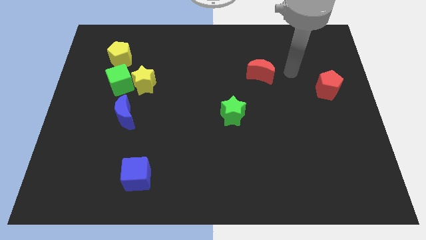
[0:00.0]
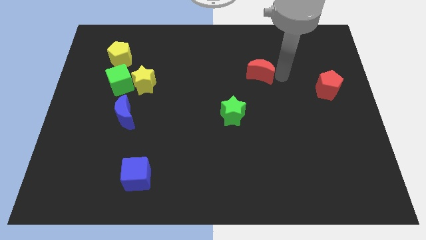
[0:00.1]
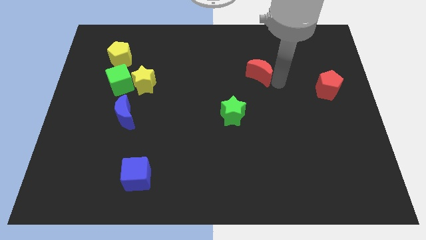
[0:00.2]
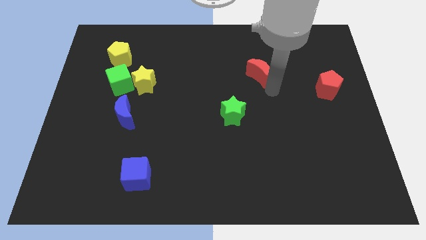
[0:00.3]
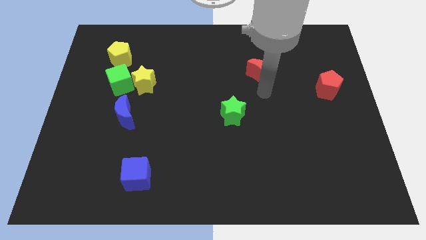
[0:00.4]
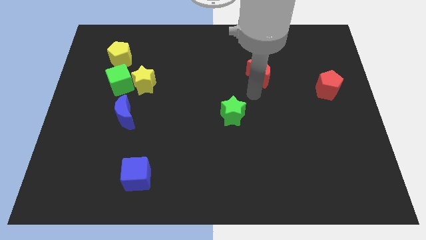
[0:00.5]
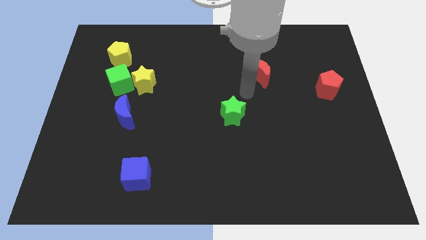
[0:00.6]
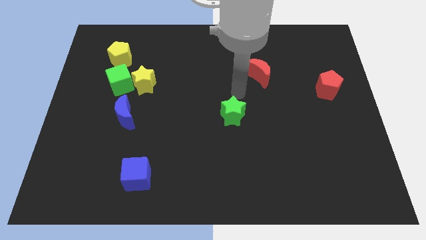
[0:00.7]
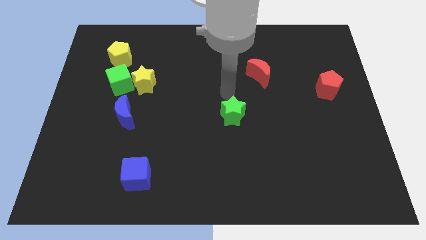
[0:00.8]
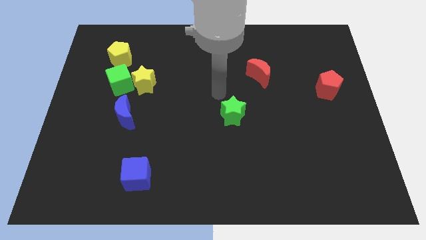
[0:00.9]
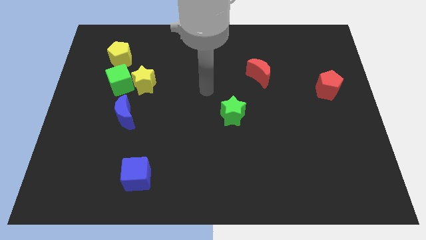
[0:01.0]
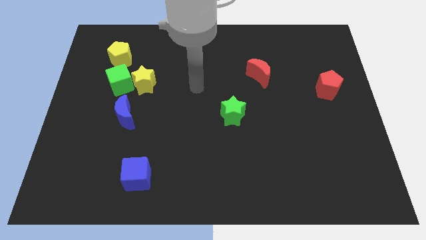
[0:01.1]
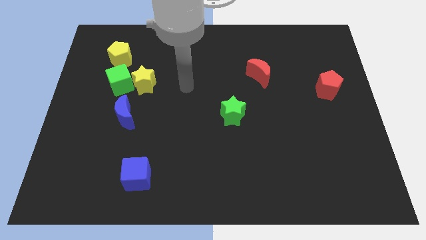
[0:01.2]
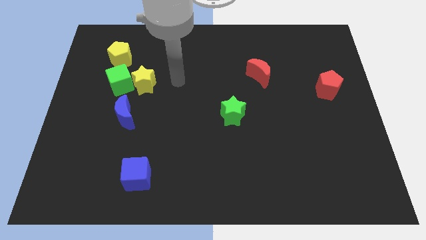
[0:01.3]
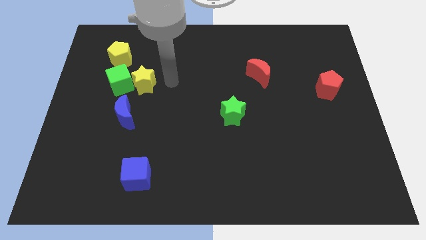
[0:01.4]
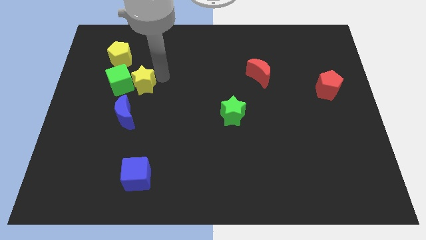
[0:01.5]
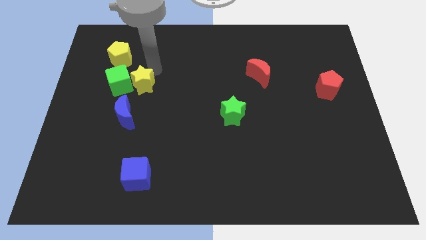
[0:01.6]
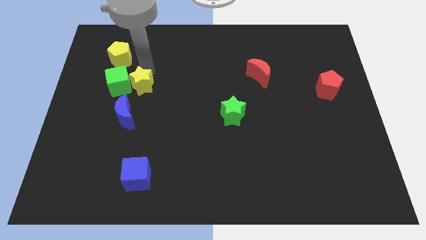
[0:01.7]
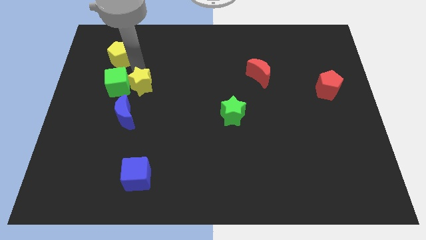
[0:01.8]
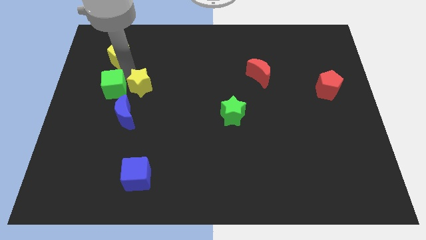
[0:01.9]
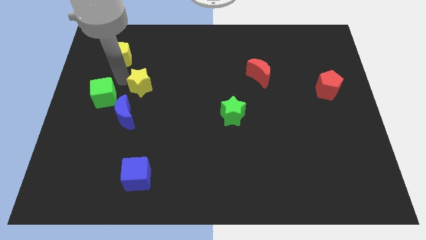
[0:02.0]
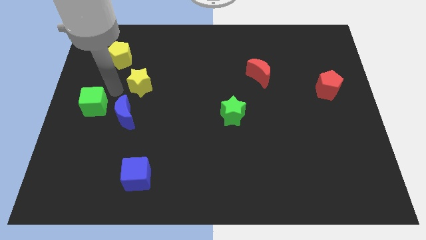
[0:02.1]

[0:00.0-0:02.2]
pull the yellow star apart from the green cube

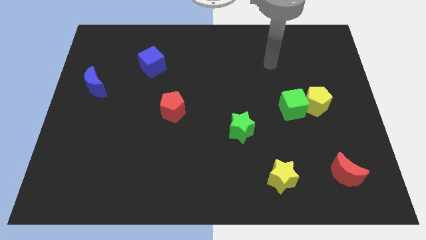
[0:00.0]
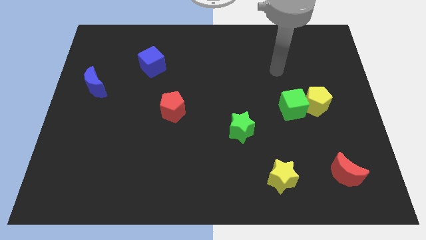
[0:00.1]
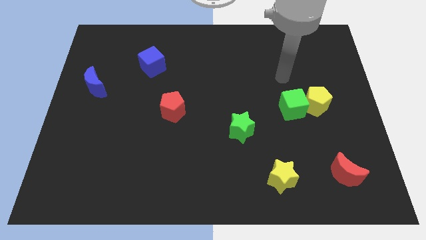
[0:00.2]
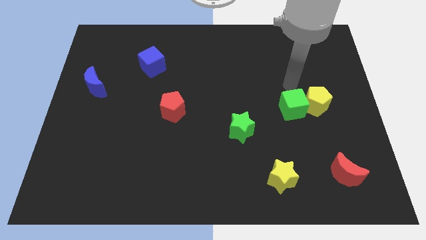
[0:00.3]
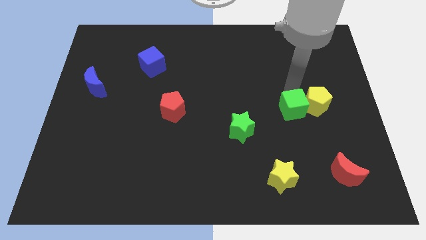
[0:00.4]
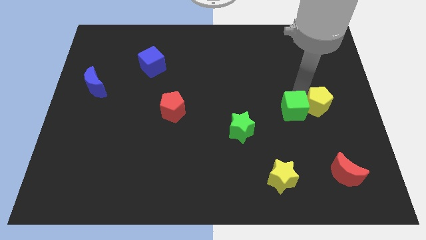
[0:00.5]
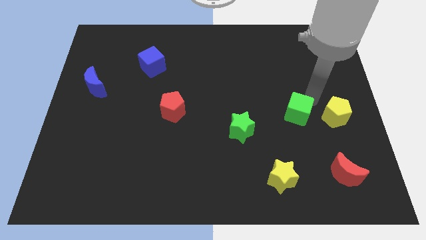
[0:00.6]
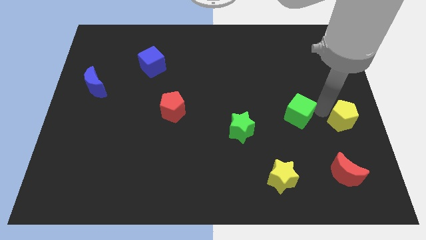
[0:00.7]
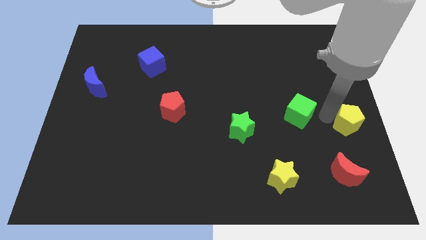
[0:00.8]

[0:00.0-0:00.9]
pull the green cube apart from the yellow pentagon

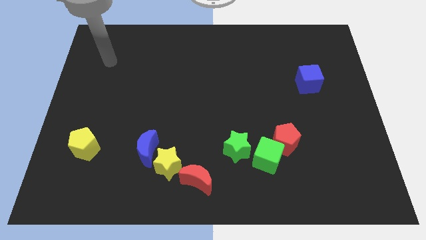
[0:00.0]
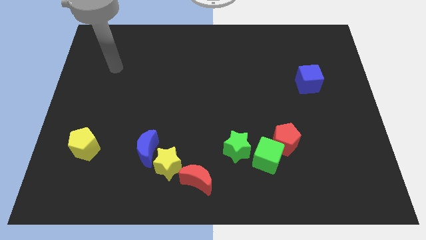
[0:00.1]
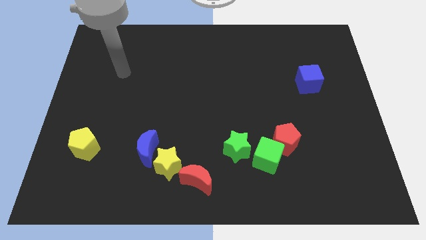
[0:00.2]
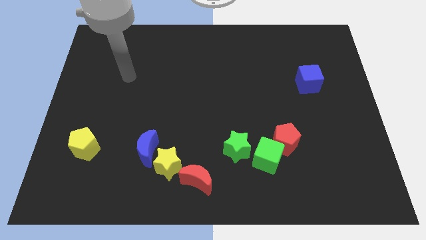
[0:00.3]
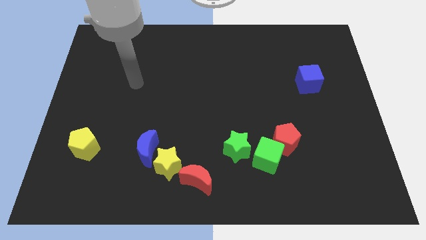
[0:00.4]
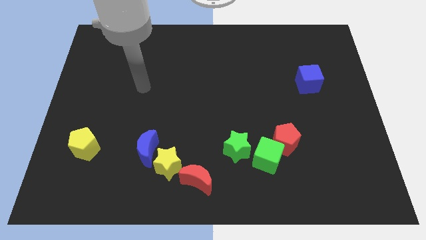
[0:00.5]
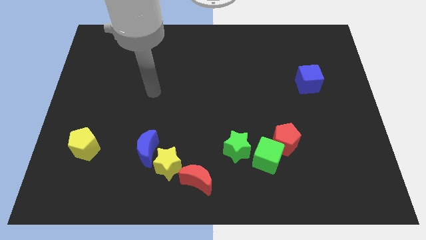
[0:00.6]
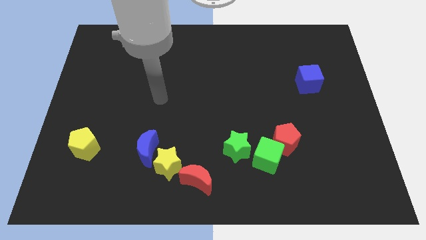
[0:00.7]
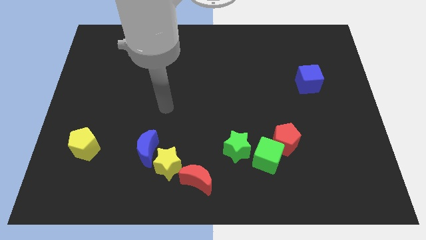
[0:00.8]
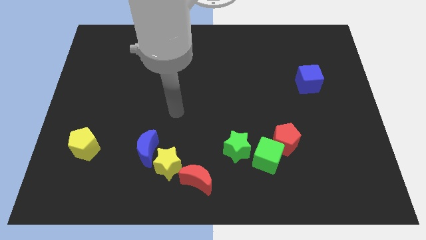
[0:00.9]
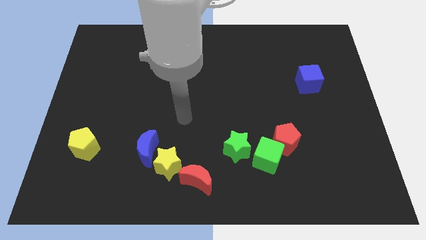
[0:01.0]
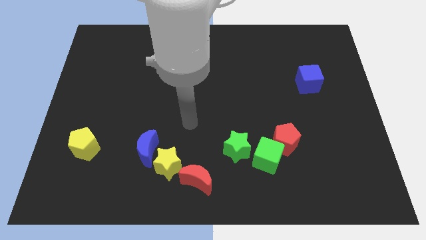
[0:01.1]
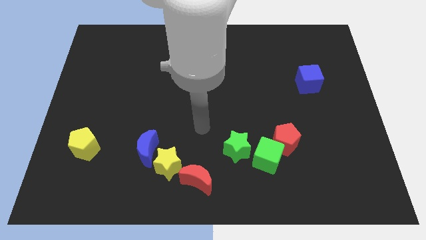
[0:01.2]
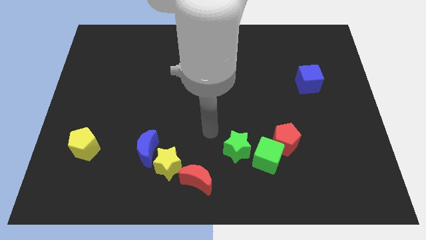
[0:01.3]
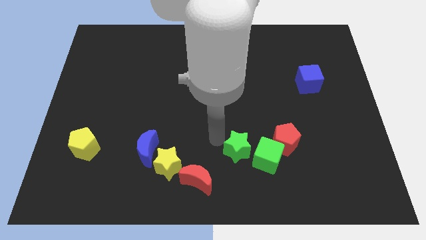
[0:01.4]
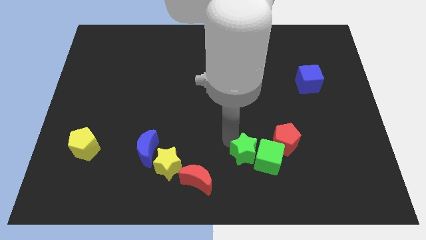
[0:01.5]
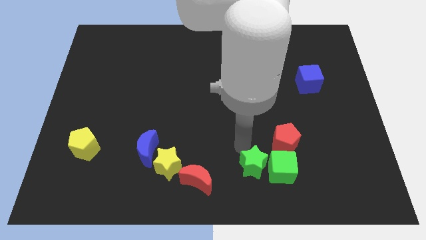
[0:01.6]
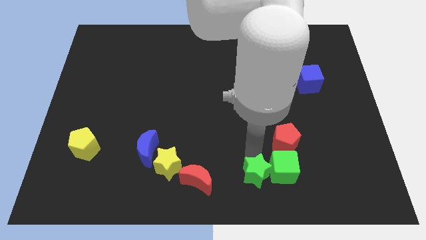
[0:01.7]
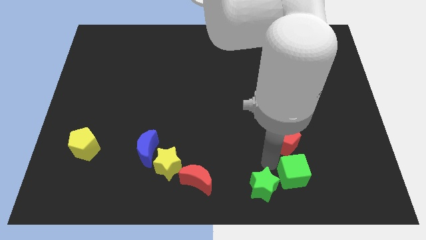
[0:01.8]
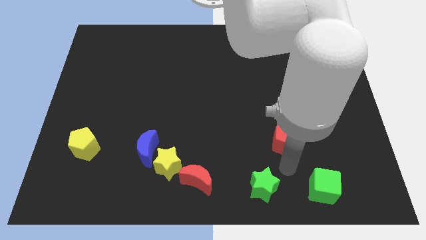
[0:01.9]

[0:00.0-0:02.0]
move the red pentagon away from the green cube

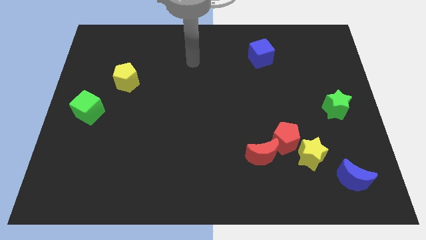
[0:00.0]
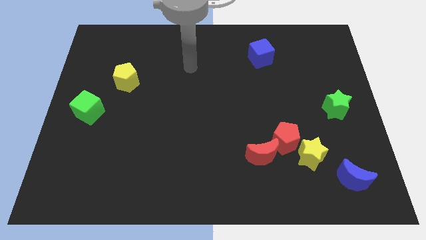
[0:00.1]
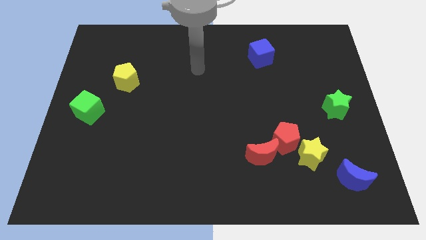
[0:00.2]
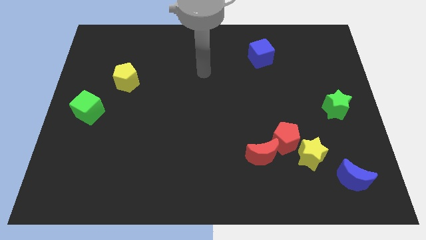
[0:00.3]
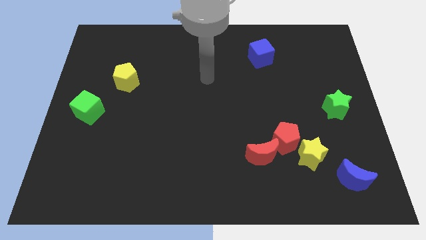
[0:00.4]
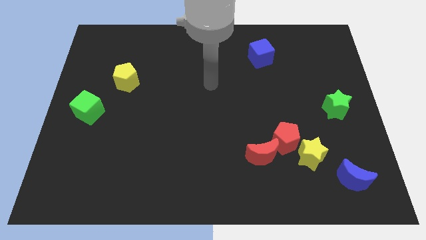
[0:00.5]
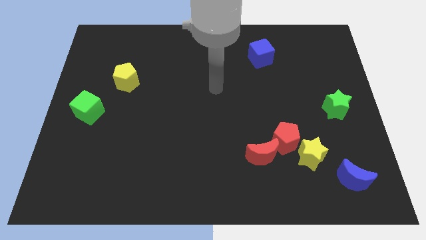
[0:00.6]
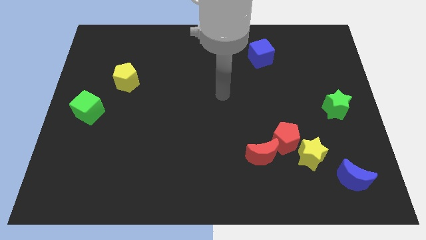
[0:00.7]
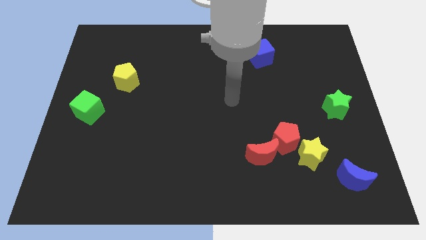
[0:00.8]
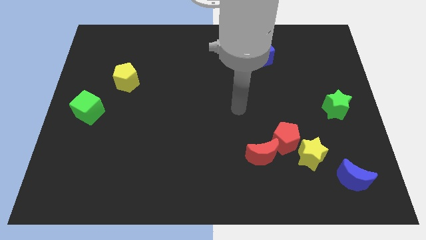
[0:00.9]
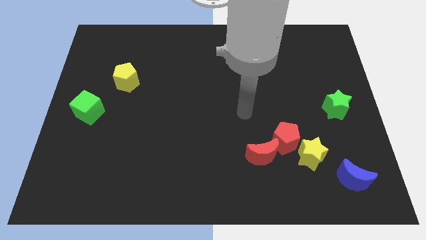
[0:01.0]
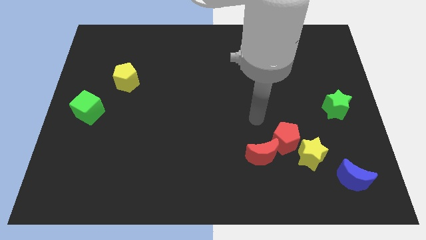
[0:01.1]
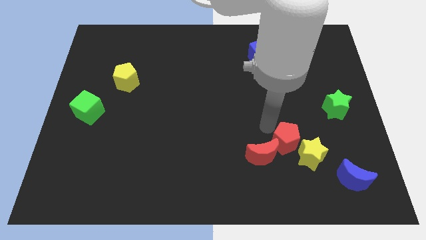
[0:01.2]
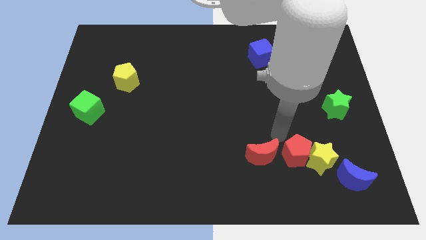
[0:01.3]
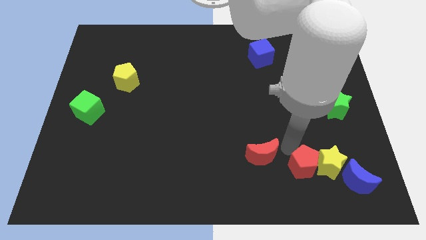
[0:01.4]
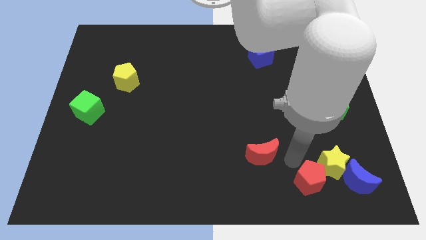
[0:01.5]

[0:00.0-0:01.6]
pull the red moon apart from the red pentagon

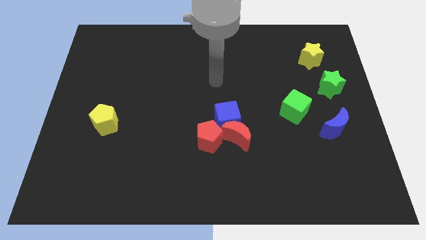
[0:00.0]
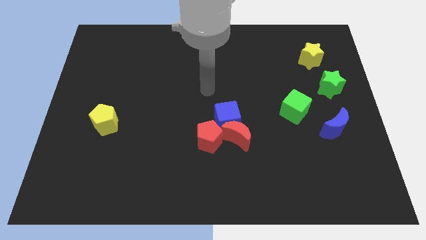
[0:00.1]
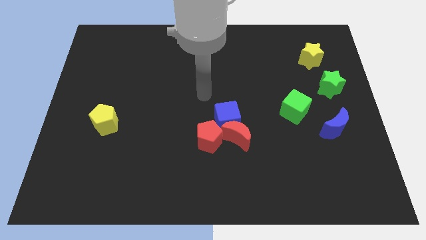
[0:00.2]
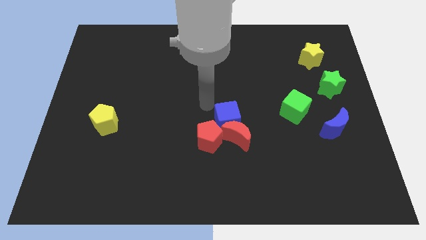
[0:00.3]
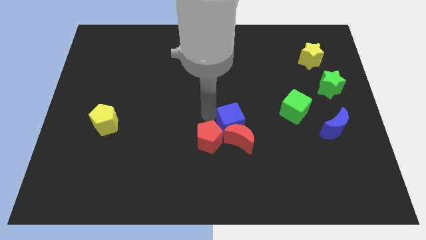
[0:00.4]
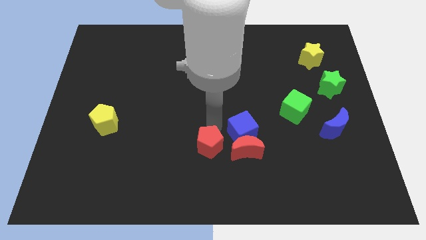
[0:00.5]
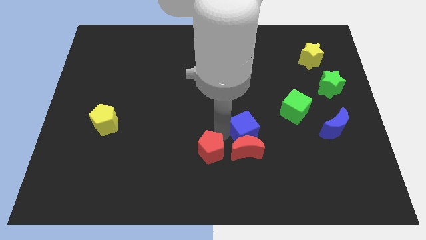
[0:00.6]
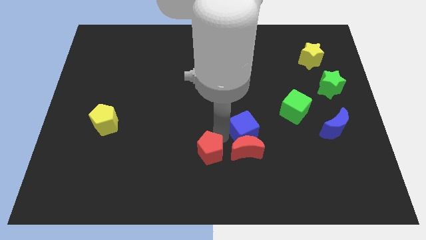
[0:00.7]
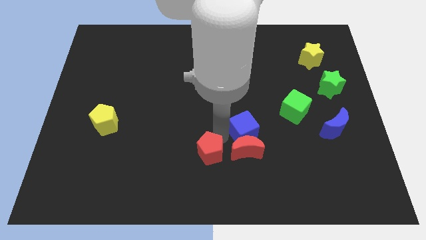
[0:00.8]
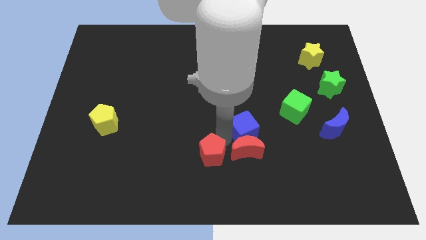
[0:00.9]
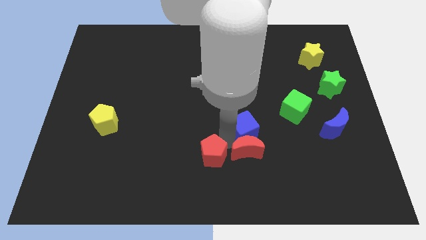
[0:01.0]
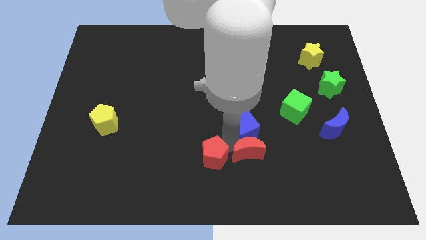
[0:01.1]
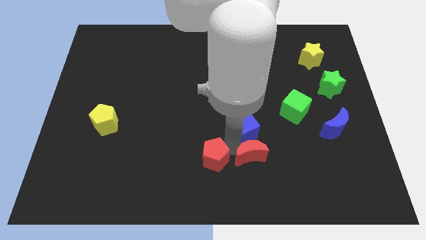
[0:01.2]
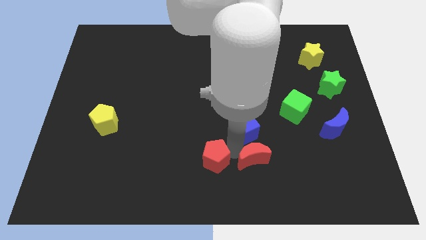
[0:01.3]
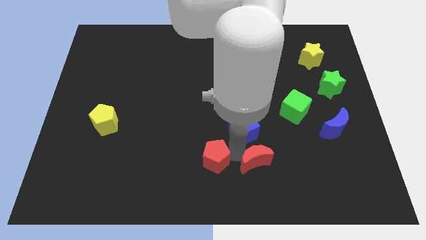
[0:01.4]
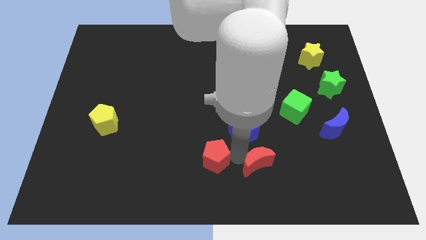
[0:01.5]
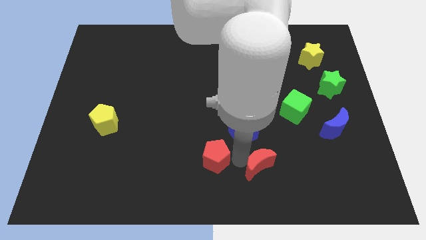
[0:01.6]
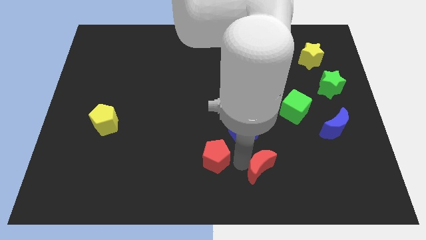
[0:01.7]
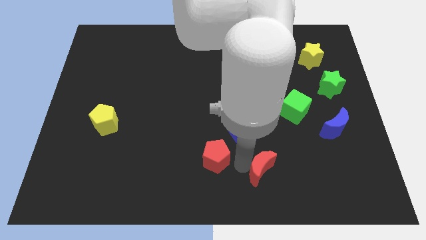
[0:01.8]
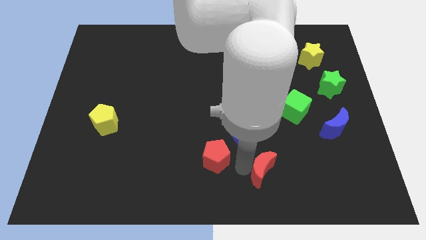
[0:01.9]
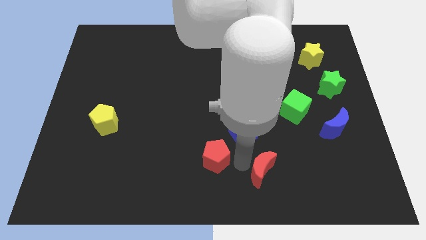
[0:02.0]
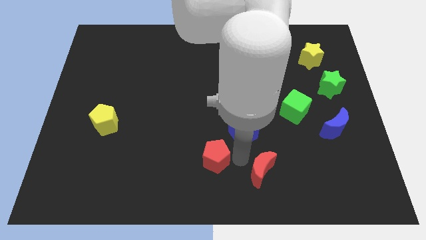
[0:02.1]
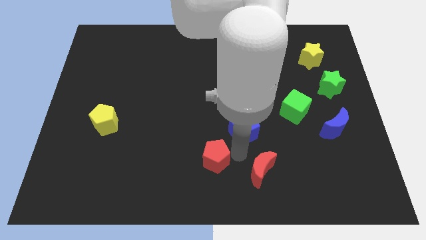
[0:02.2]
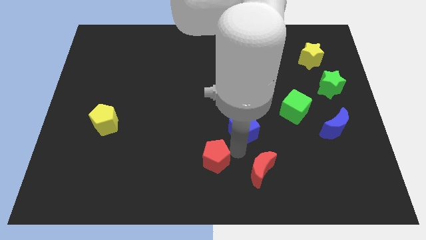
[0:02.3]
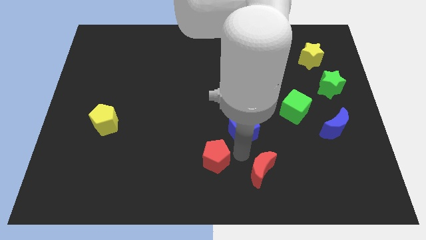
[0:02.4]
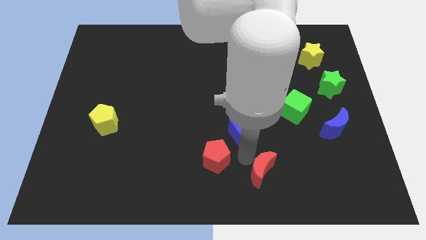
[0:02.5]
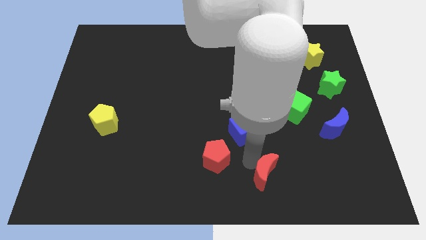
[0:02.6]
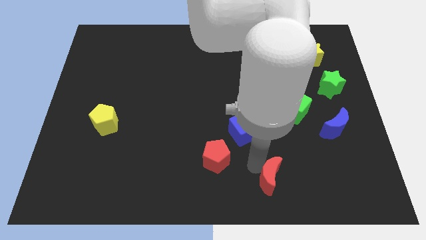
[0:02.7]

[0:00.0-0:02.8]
move the red moon away from the blue cube and red pentagon
